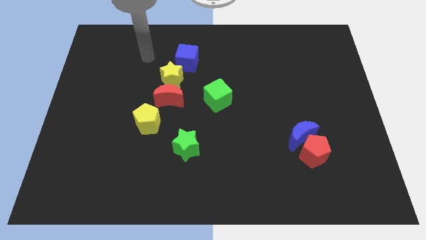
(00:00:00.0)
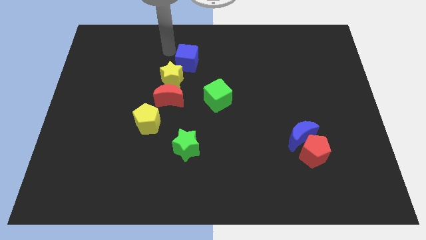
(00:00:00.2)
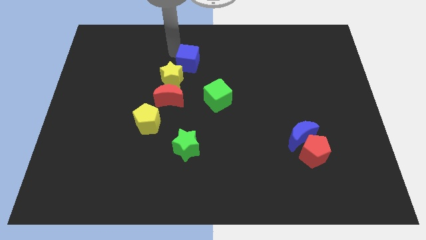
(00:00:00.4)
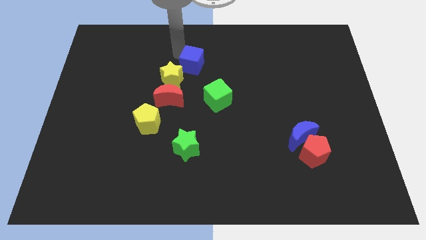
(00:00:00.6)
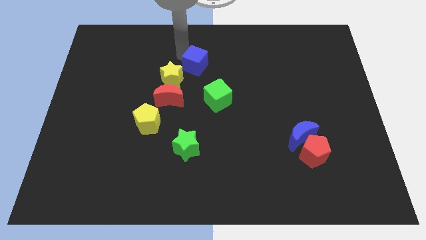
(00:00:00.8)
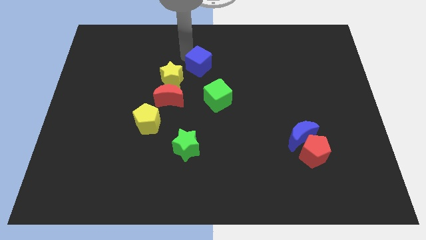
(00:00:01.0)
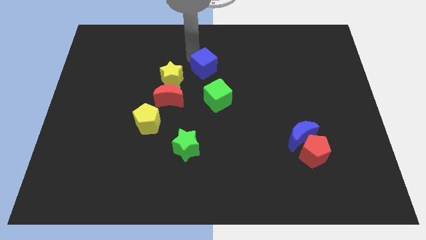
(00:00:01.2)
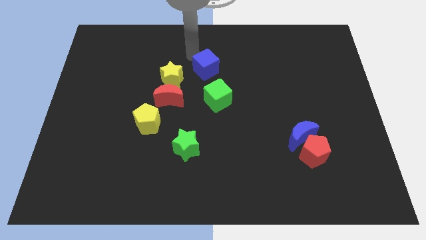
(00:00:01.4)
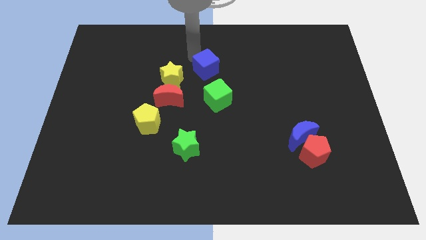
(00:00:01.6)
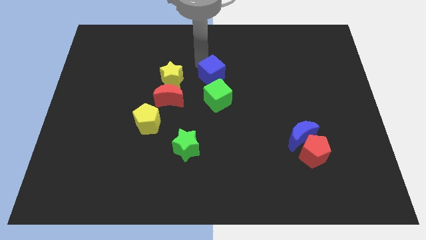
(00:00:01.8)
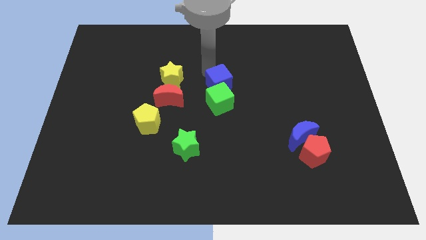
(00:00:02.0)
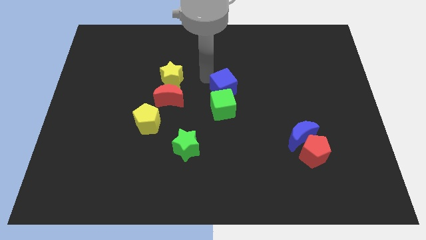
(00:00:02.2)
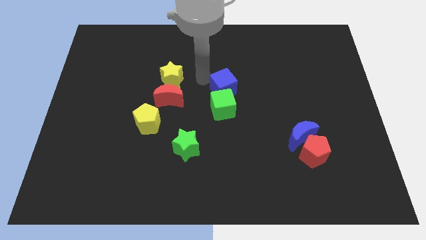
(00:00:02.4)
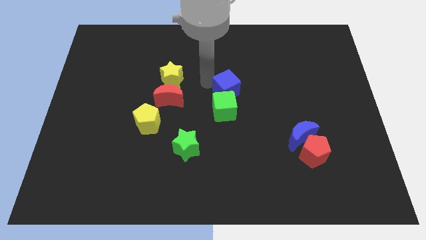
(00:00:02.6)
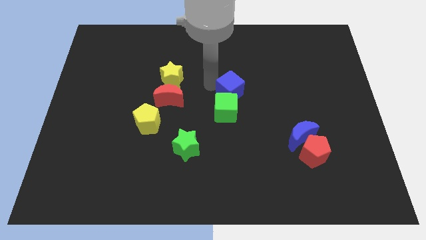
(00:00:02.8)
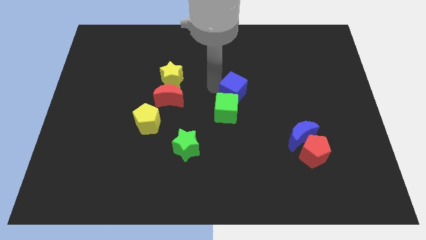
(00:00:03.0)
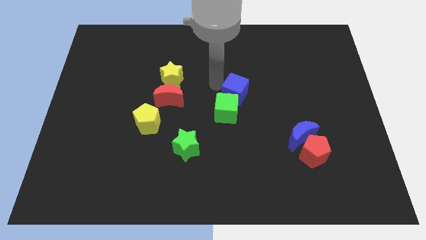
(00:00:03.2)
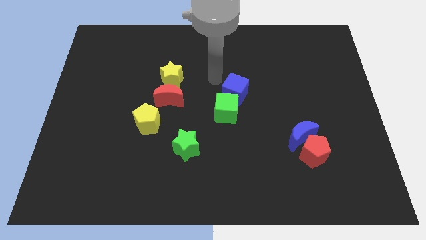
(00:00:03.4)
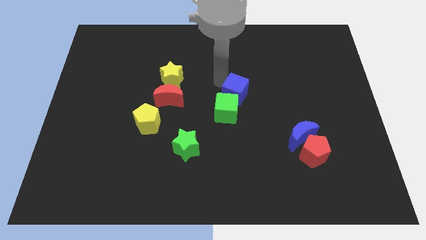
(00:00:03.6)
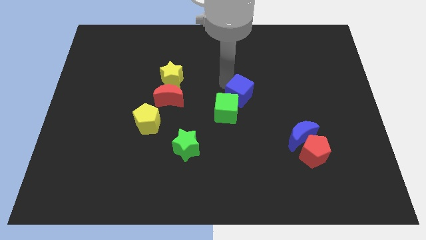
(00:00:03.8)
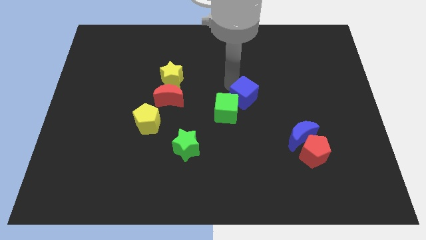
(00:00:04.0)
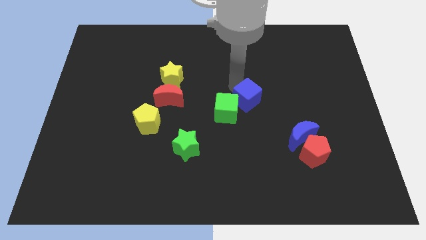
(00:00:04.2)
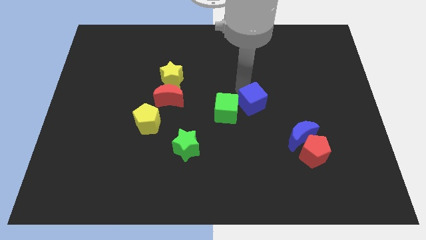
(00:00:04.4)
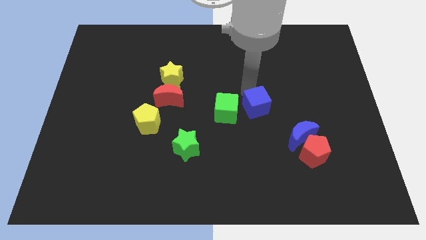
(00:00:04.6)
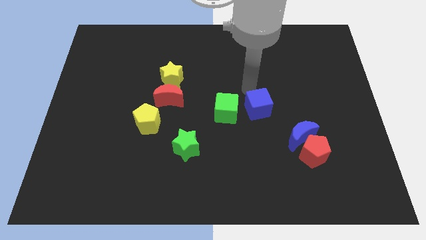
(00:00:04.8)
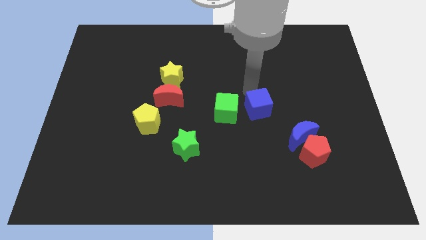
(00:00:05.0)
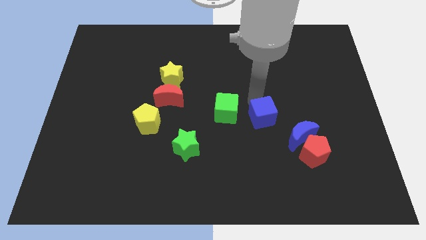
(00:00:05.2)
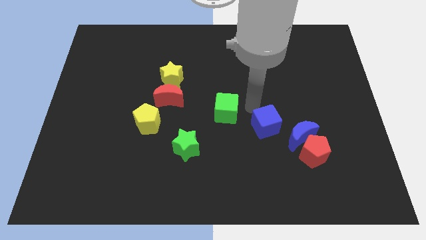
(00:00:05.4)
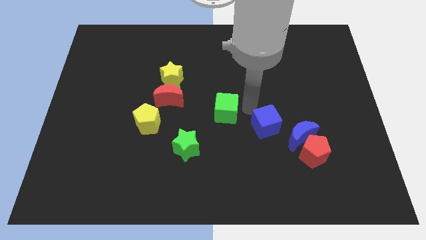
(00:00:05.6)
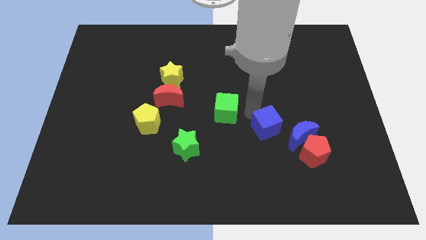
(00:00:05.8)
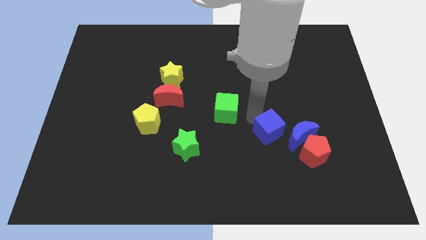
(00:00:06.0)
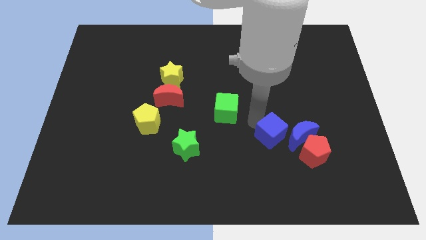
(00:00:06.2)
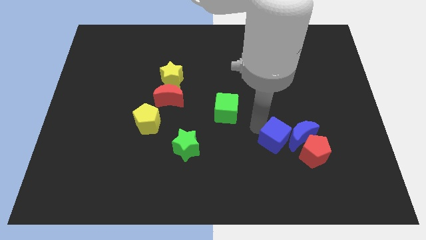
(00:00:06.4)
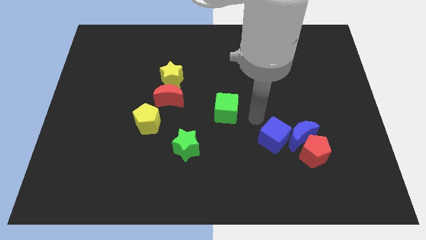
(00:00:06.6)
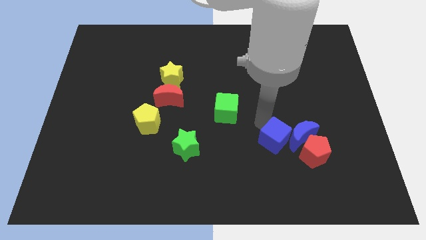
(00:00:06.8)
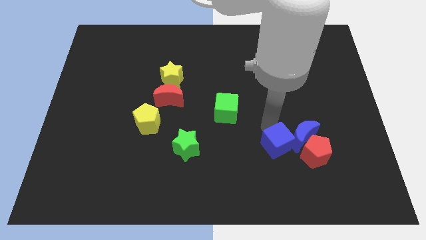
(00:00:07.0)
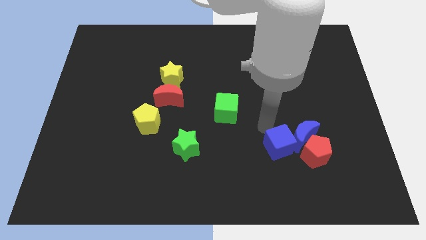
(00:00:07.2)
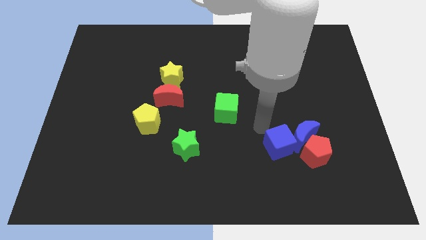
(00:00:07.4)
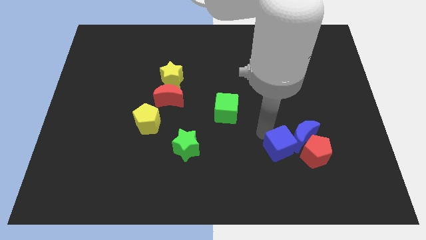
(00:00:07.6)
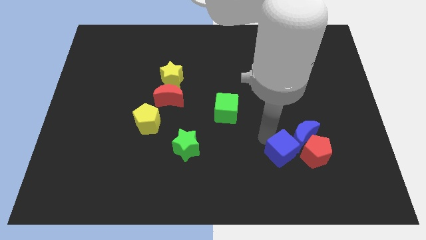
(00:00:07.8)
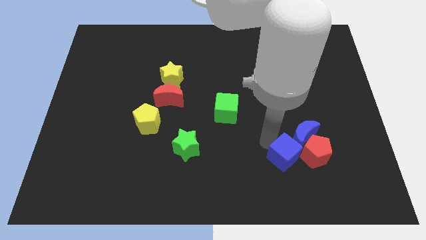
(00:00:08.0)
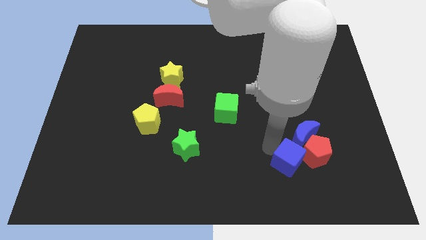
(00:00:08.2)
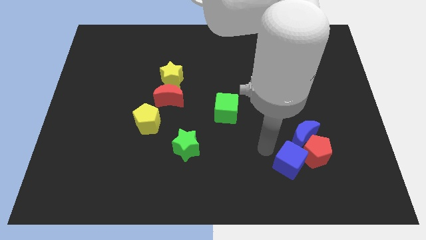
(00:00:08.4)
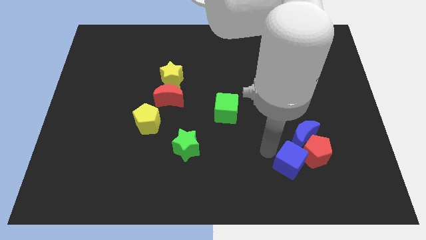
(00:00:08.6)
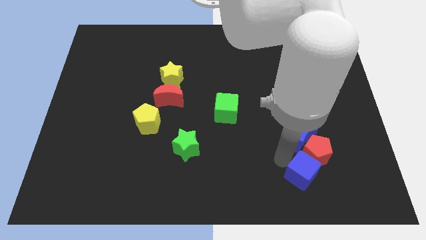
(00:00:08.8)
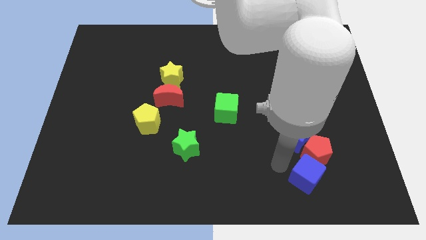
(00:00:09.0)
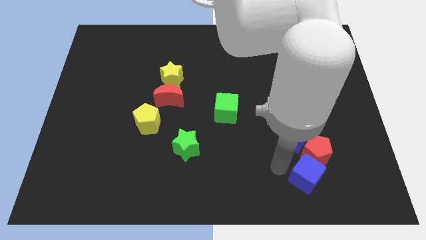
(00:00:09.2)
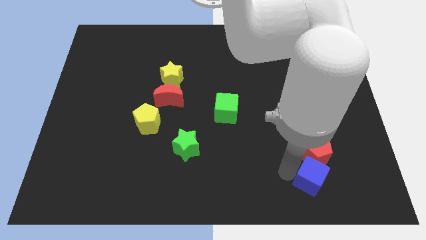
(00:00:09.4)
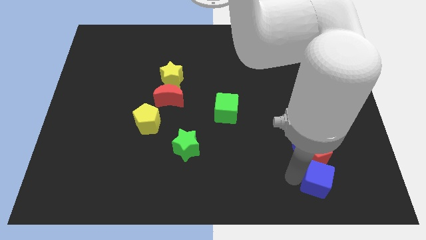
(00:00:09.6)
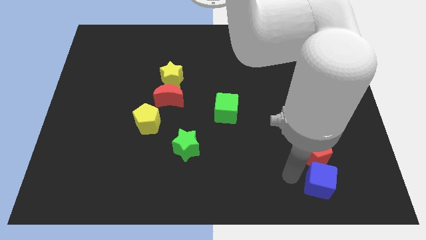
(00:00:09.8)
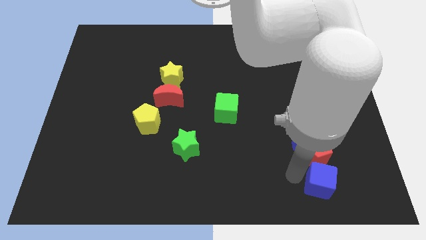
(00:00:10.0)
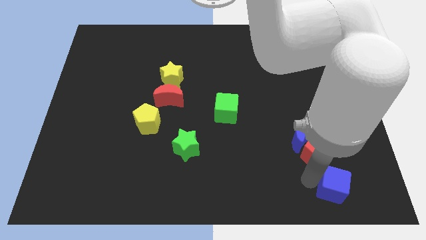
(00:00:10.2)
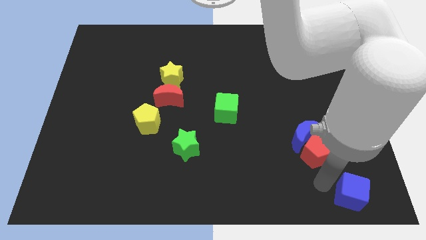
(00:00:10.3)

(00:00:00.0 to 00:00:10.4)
move the blue cube to the bottom right of the board

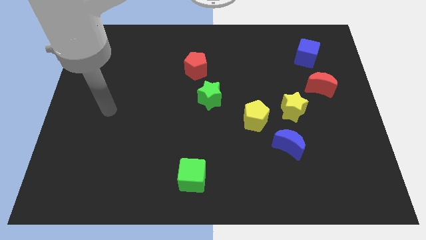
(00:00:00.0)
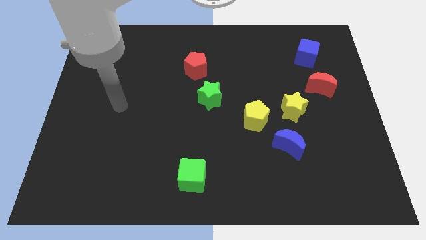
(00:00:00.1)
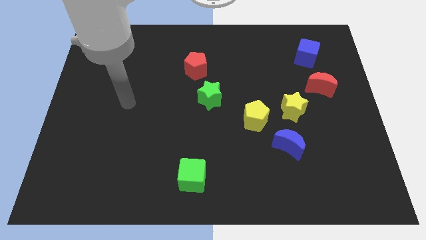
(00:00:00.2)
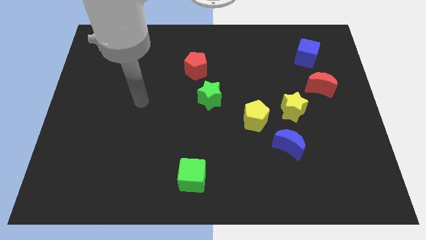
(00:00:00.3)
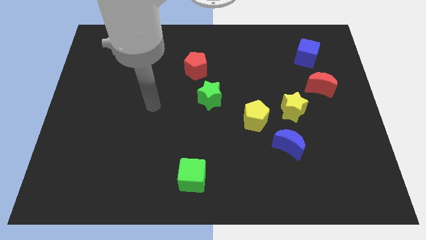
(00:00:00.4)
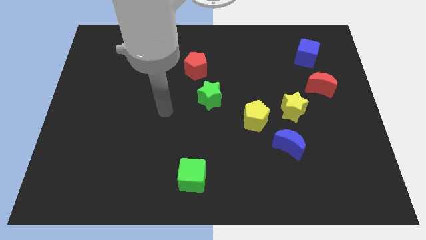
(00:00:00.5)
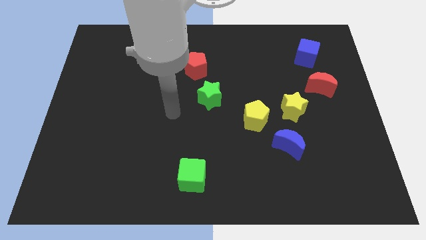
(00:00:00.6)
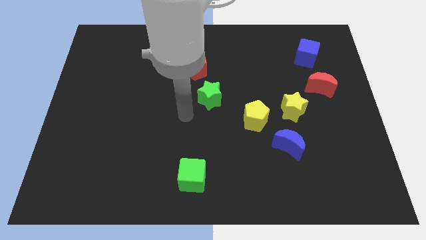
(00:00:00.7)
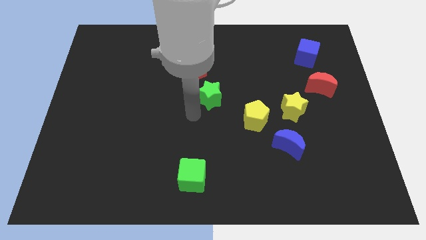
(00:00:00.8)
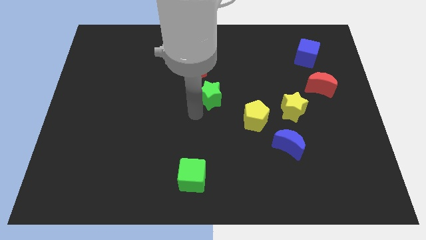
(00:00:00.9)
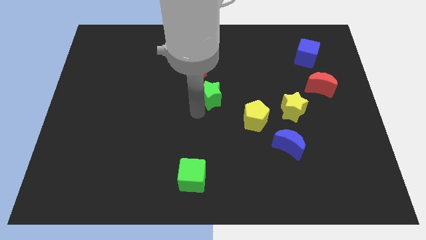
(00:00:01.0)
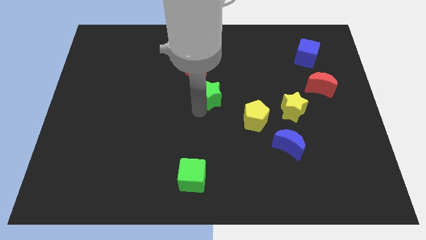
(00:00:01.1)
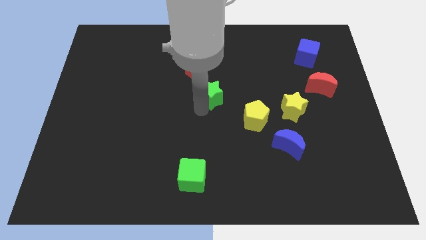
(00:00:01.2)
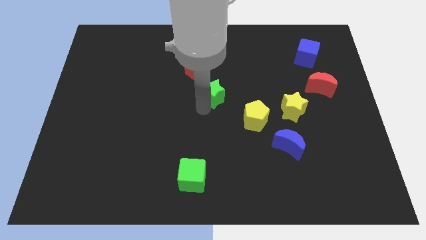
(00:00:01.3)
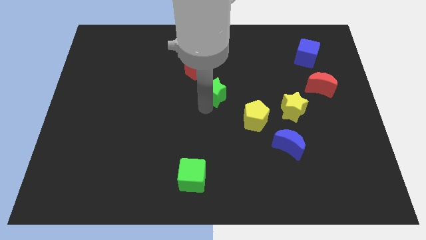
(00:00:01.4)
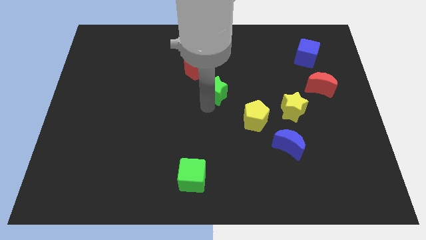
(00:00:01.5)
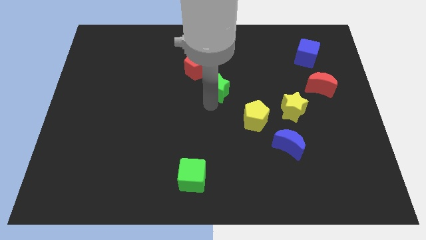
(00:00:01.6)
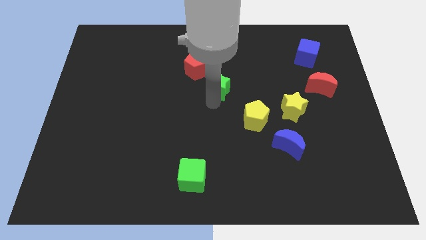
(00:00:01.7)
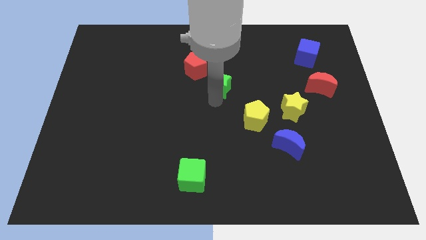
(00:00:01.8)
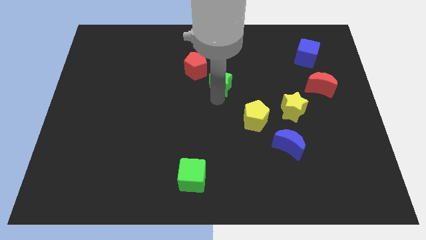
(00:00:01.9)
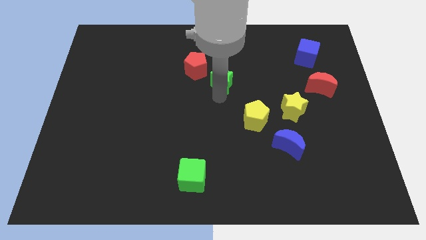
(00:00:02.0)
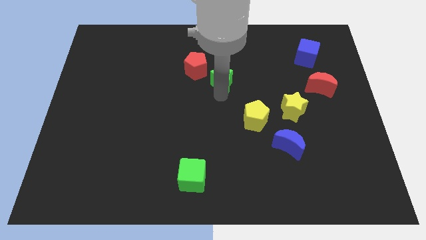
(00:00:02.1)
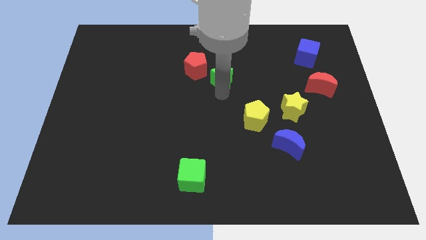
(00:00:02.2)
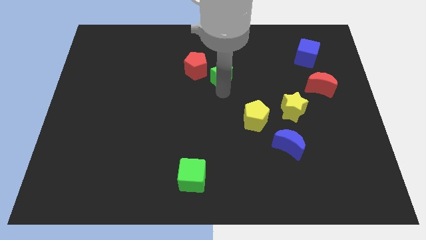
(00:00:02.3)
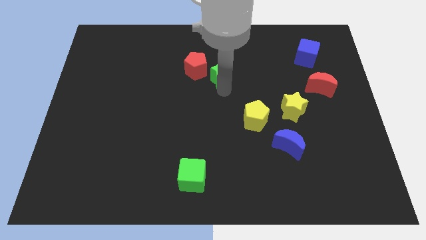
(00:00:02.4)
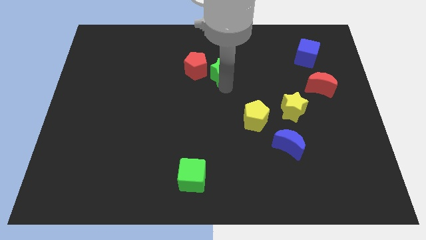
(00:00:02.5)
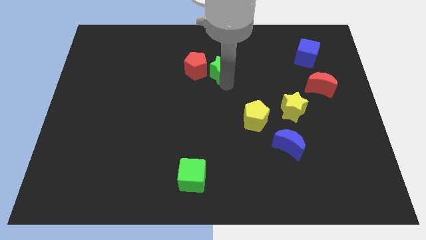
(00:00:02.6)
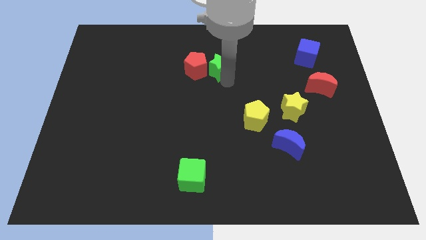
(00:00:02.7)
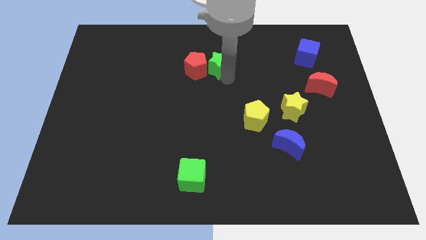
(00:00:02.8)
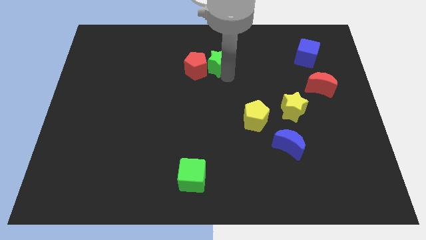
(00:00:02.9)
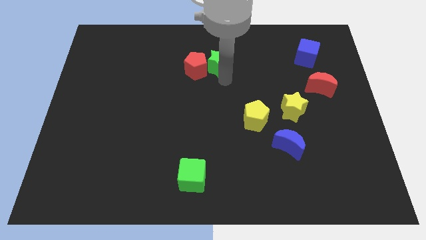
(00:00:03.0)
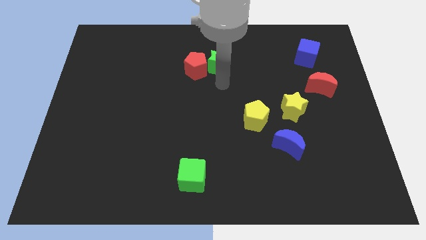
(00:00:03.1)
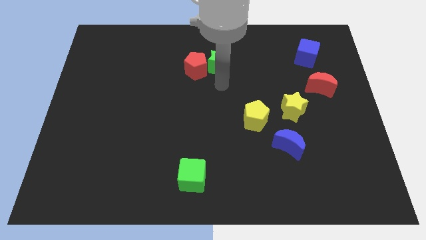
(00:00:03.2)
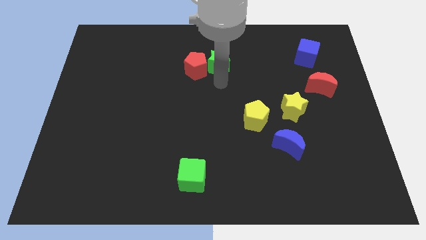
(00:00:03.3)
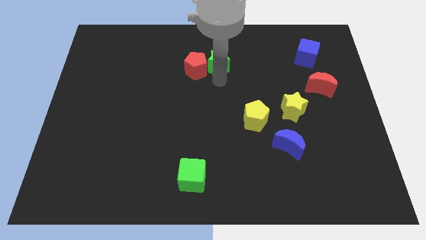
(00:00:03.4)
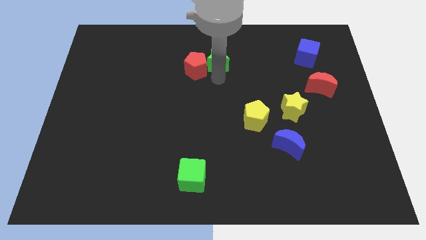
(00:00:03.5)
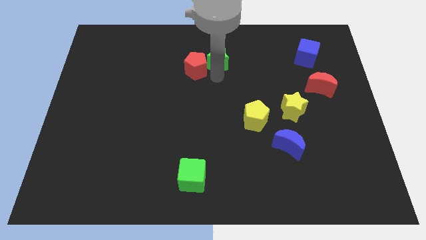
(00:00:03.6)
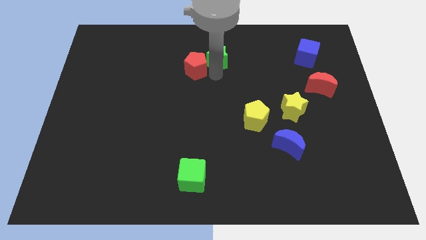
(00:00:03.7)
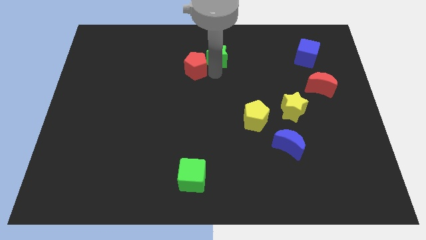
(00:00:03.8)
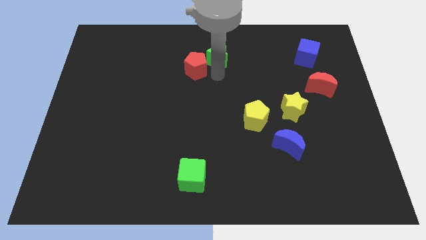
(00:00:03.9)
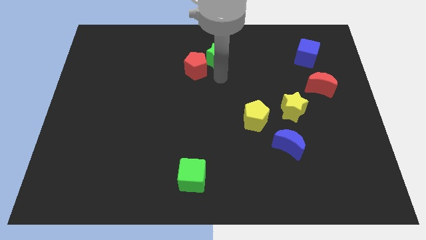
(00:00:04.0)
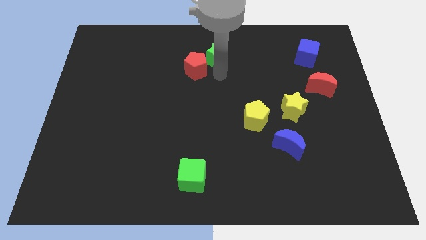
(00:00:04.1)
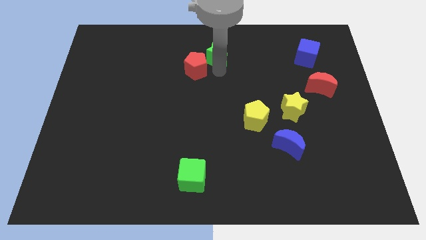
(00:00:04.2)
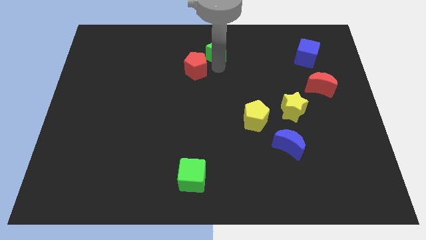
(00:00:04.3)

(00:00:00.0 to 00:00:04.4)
move the green star to the top side
